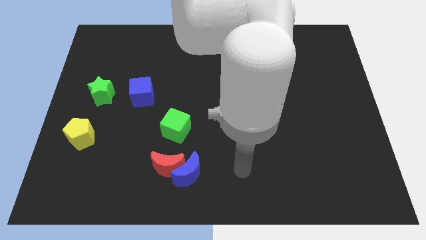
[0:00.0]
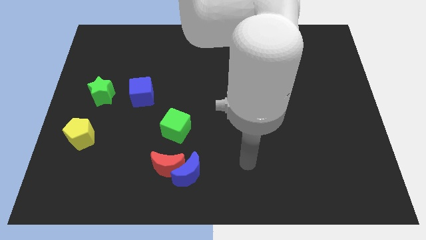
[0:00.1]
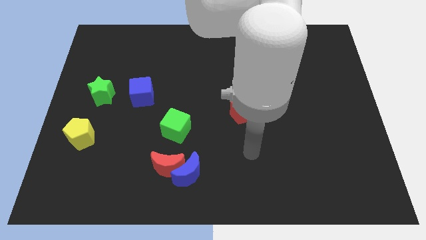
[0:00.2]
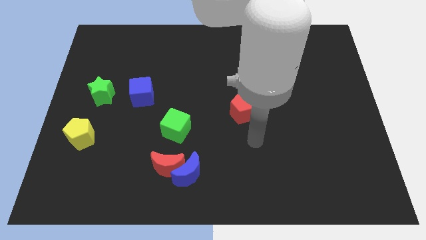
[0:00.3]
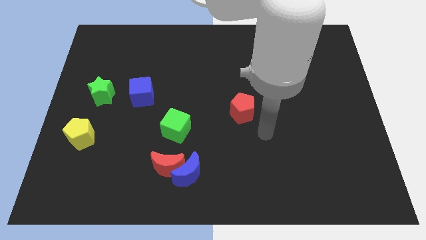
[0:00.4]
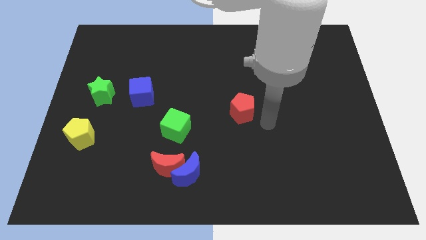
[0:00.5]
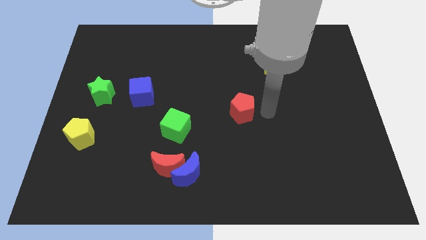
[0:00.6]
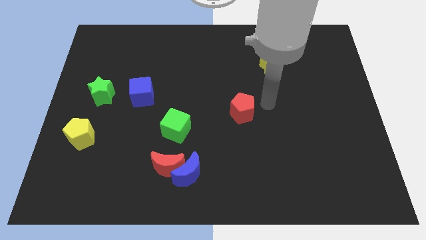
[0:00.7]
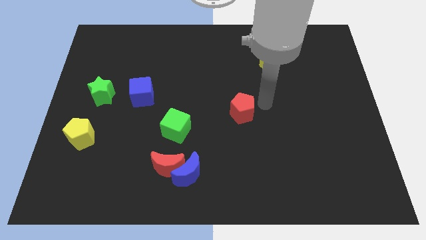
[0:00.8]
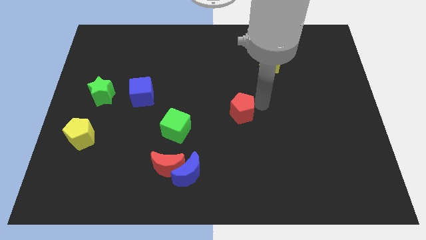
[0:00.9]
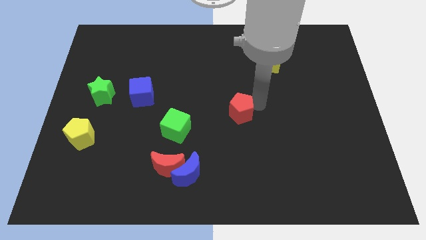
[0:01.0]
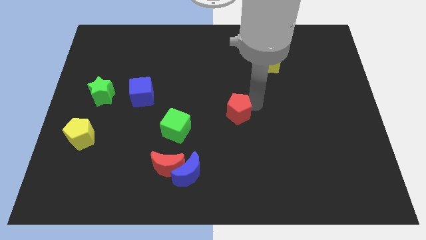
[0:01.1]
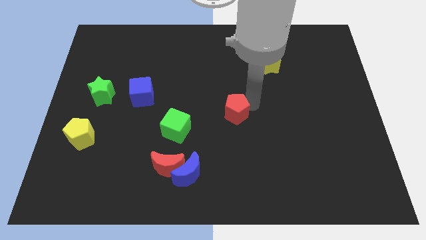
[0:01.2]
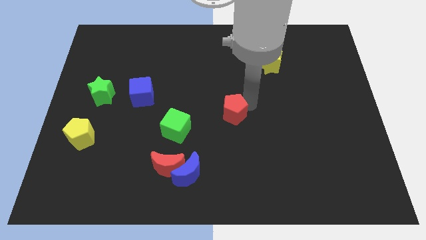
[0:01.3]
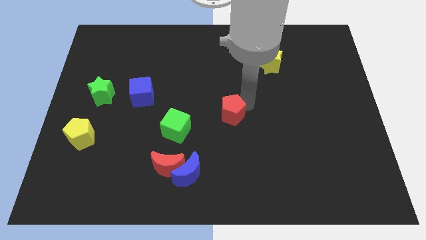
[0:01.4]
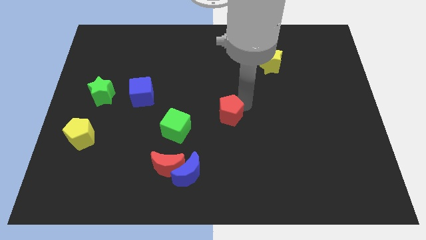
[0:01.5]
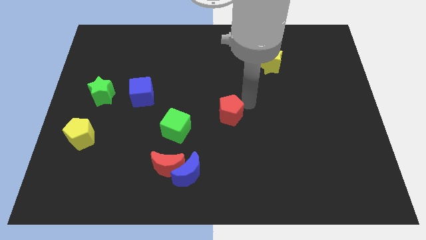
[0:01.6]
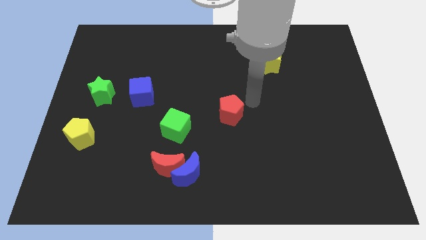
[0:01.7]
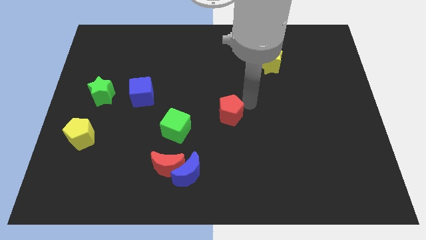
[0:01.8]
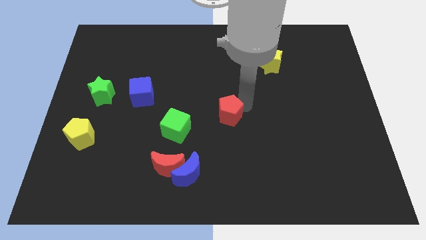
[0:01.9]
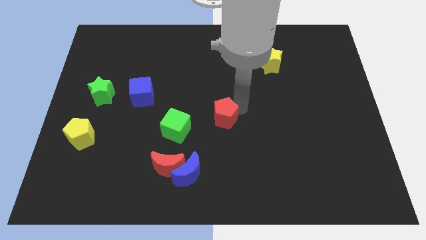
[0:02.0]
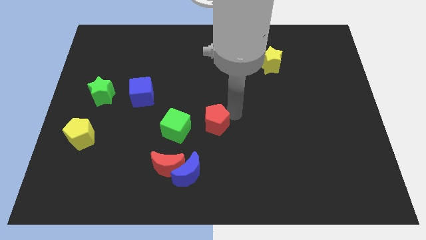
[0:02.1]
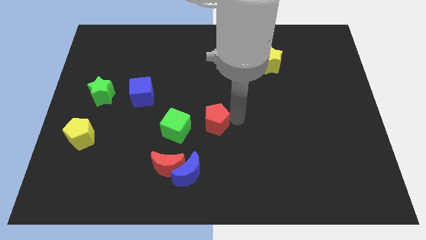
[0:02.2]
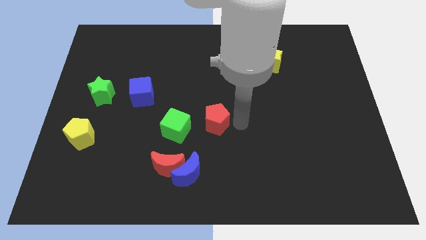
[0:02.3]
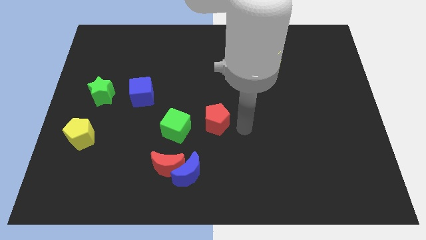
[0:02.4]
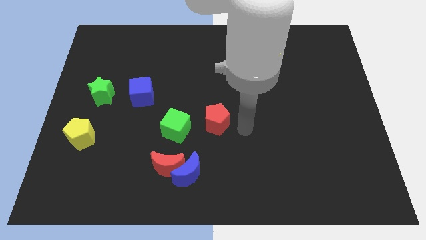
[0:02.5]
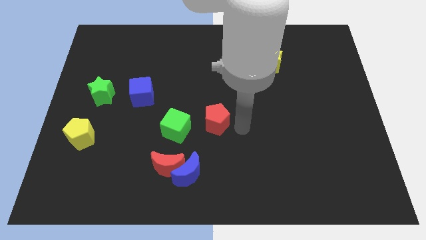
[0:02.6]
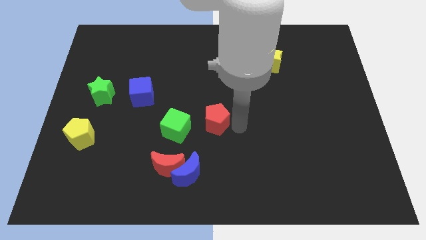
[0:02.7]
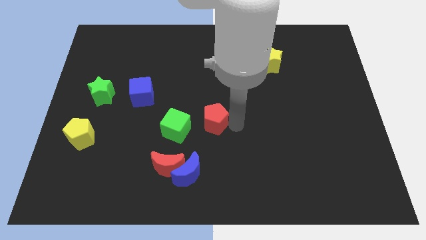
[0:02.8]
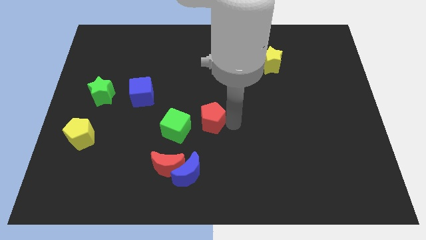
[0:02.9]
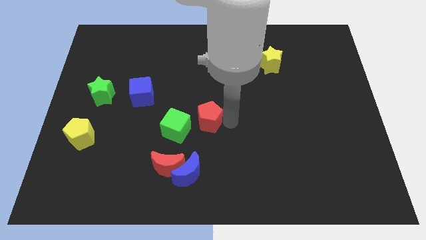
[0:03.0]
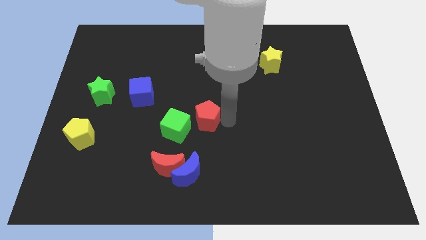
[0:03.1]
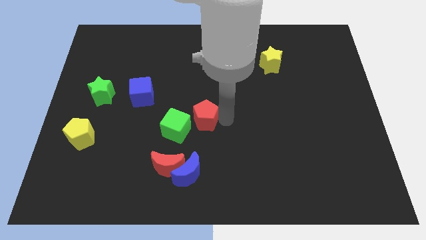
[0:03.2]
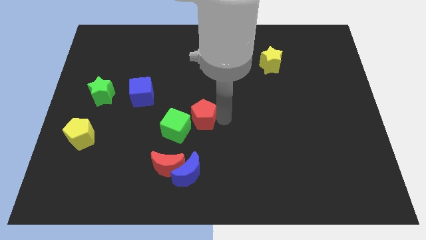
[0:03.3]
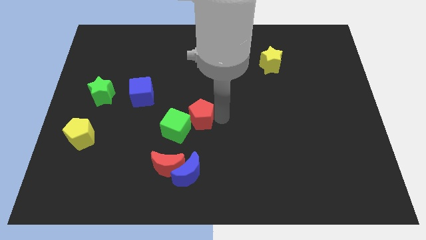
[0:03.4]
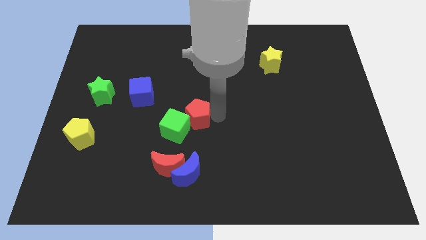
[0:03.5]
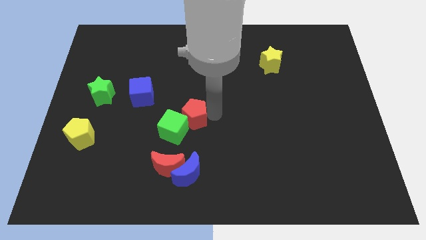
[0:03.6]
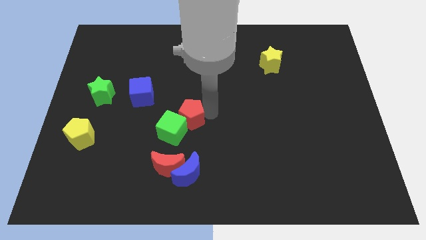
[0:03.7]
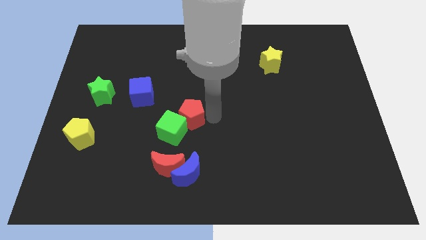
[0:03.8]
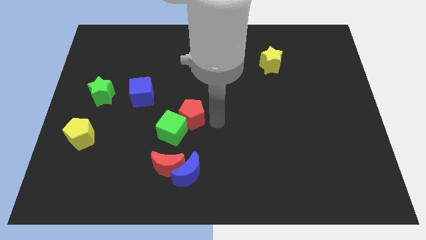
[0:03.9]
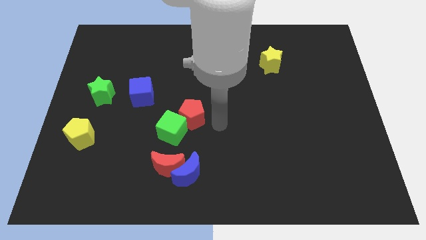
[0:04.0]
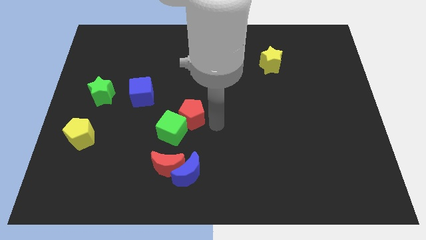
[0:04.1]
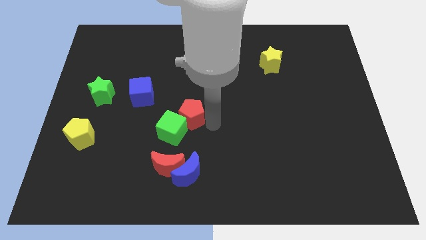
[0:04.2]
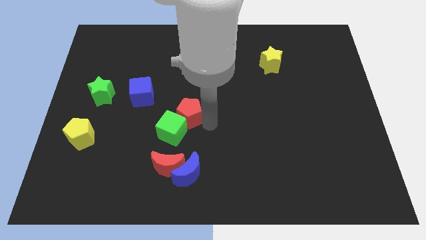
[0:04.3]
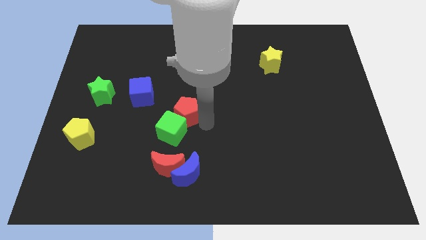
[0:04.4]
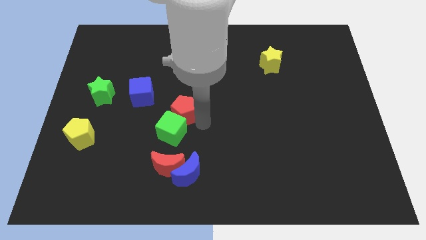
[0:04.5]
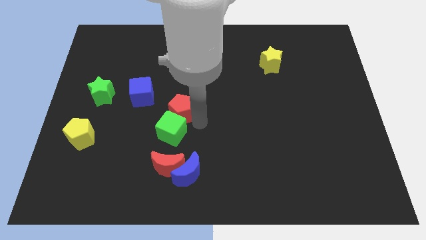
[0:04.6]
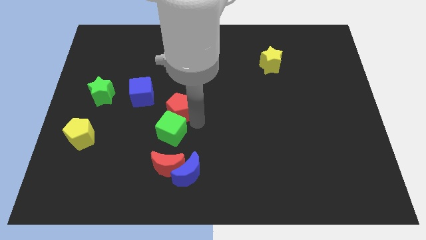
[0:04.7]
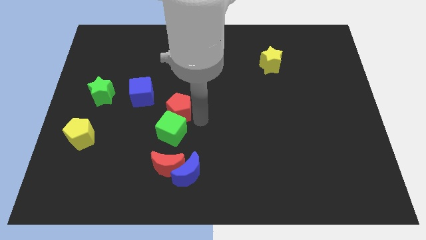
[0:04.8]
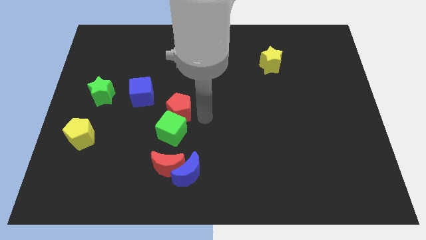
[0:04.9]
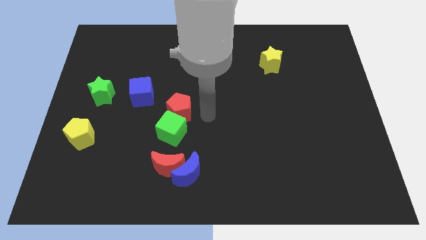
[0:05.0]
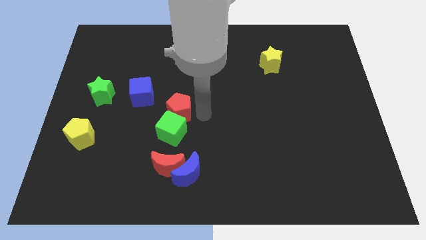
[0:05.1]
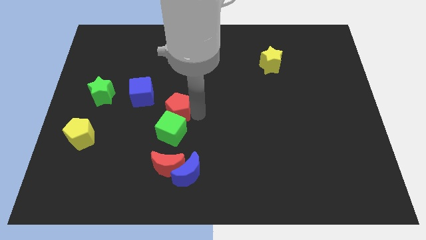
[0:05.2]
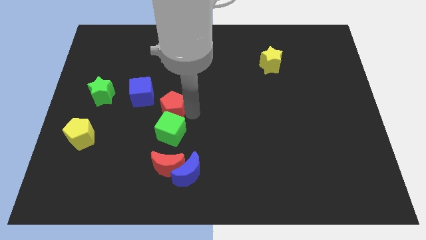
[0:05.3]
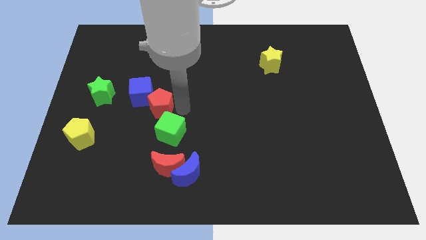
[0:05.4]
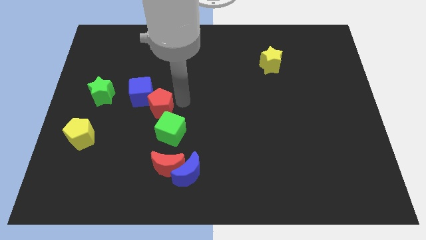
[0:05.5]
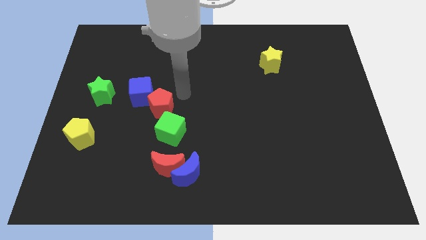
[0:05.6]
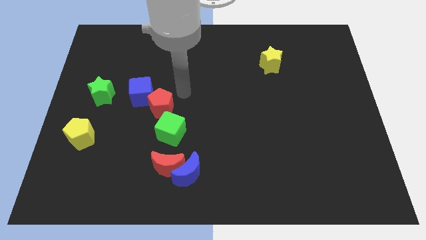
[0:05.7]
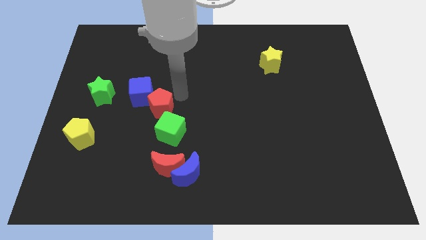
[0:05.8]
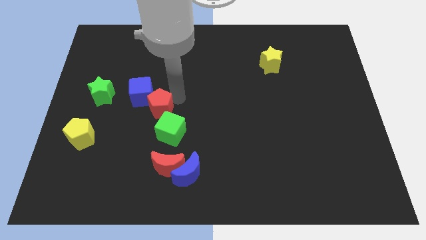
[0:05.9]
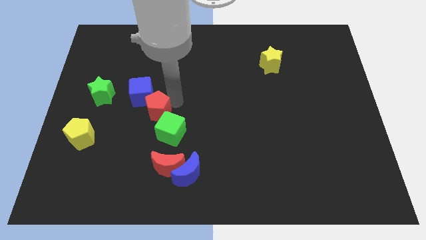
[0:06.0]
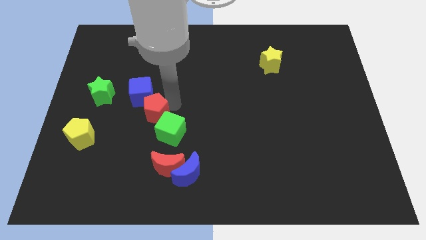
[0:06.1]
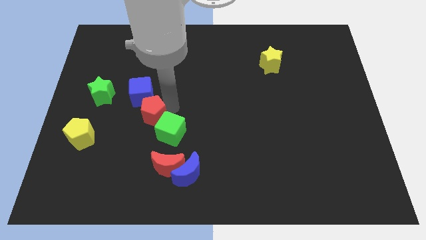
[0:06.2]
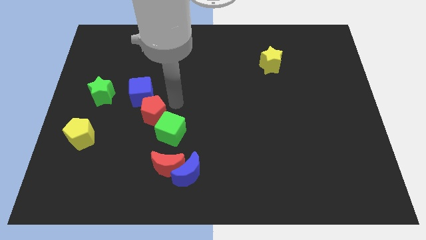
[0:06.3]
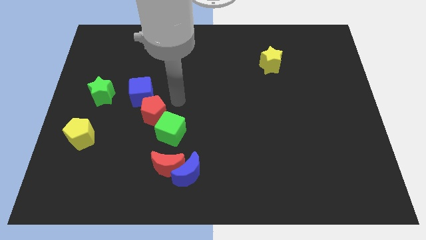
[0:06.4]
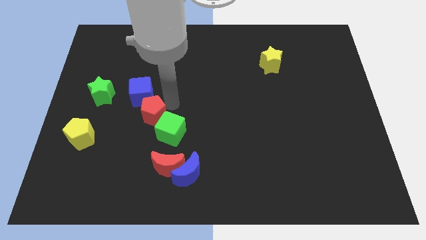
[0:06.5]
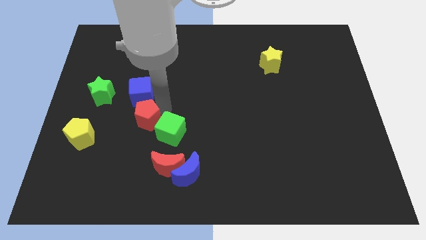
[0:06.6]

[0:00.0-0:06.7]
slide the red pentagon left of the green cube

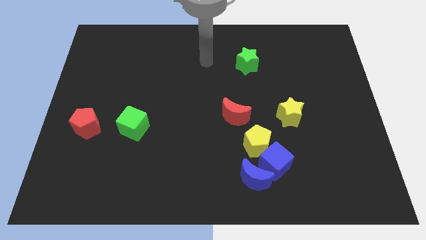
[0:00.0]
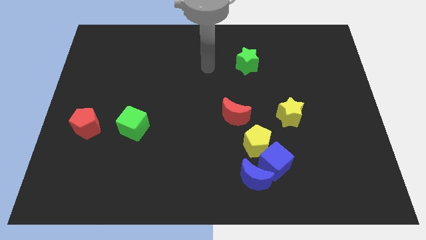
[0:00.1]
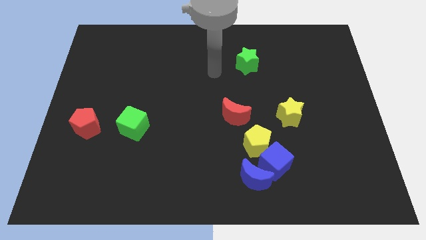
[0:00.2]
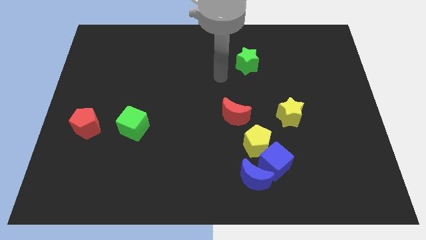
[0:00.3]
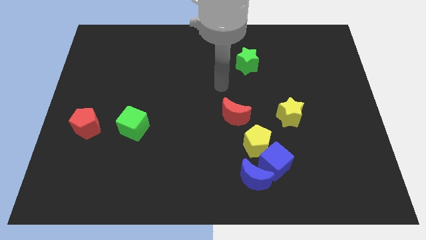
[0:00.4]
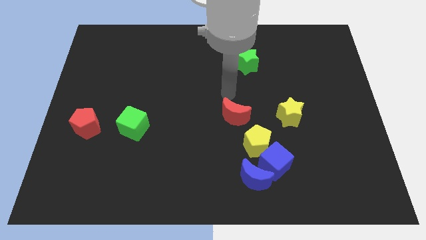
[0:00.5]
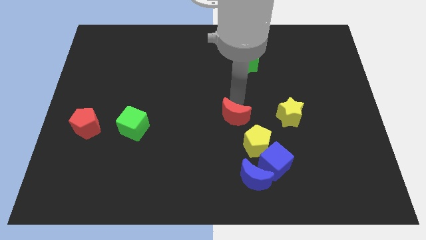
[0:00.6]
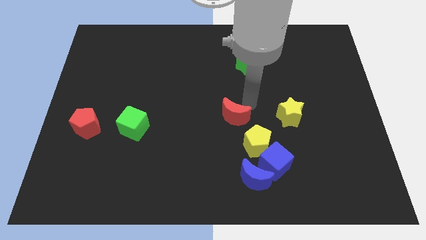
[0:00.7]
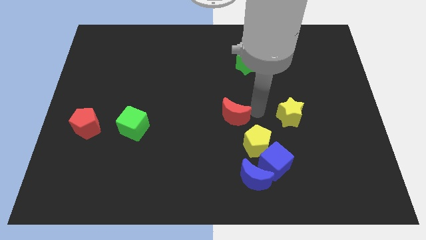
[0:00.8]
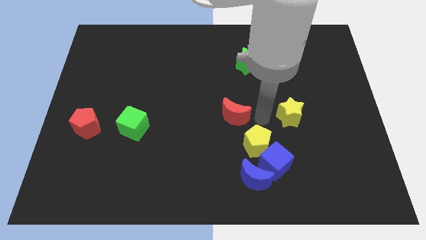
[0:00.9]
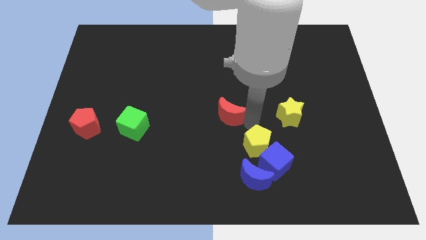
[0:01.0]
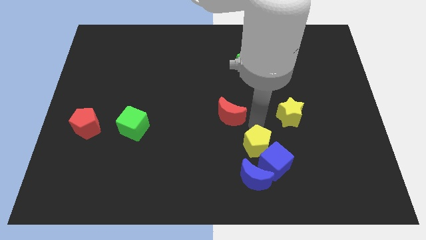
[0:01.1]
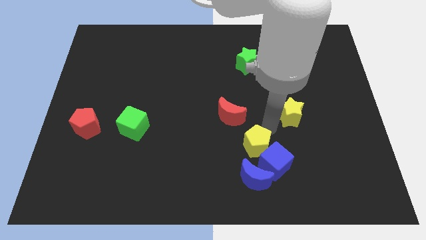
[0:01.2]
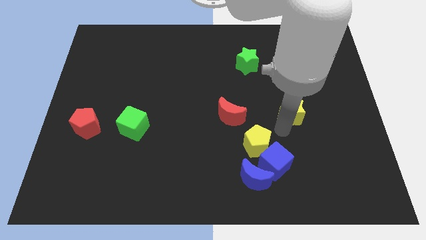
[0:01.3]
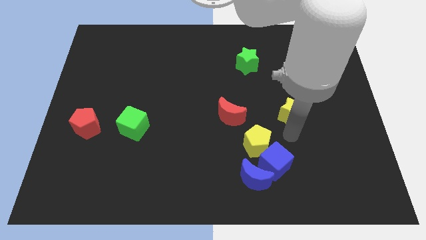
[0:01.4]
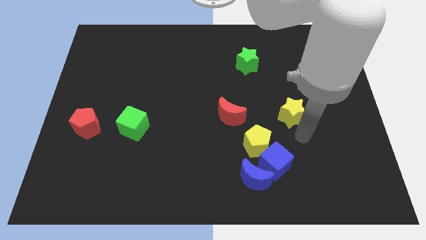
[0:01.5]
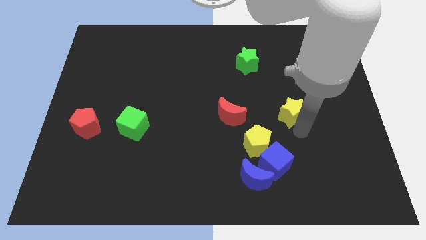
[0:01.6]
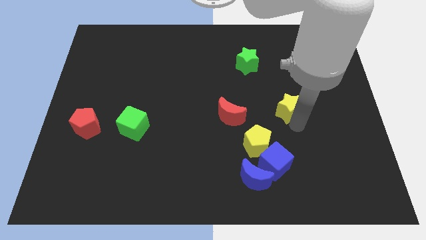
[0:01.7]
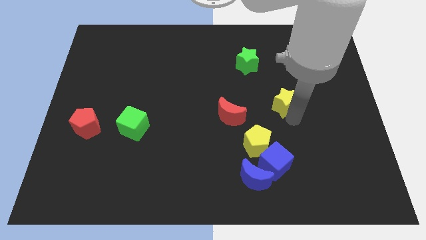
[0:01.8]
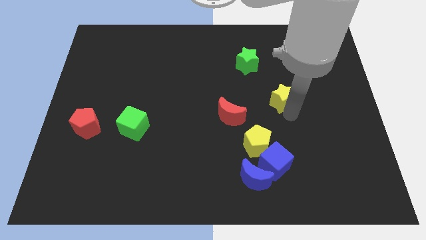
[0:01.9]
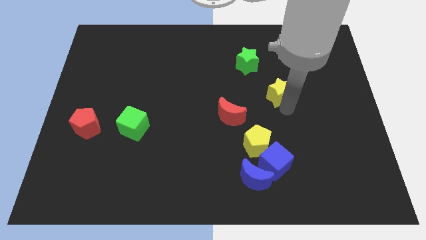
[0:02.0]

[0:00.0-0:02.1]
push the yellow star to the bottom right side of the green star
